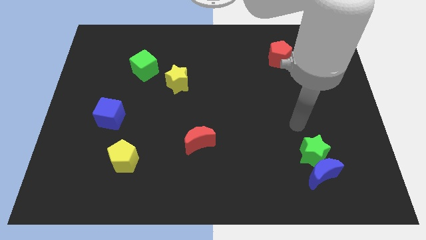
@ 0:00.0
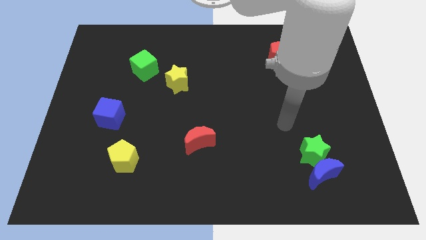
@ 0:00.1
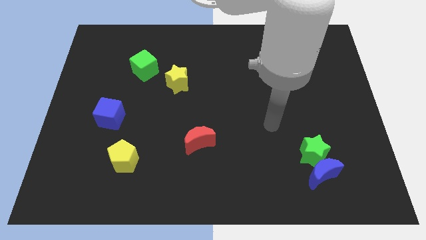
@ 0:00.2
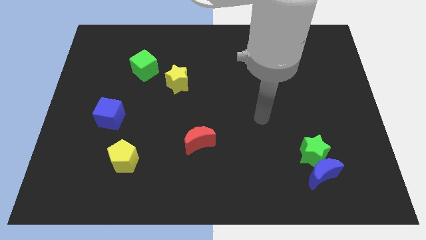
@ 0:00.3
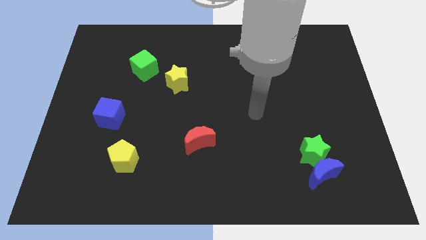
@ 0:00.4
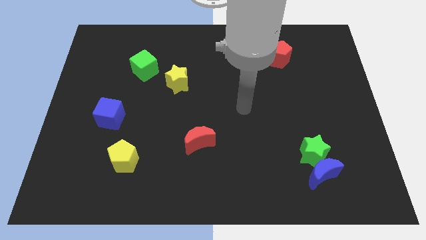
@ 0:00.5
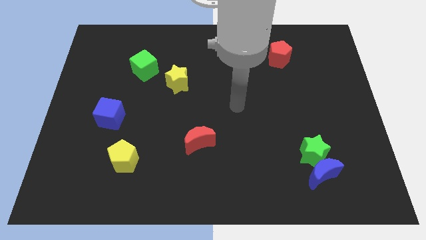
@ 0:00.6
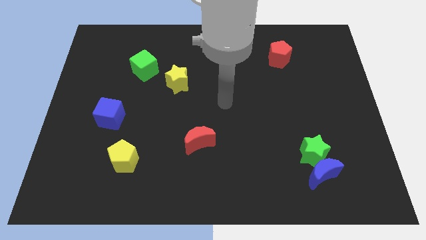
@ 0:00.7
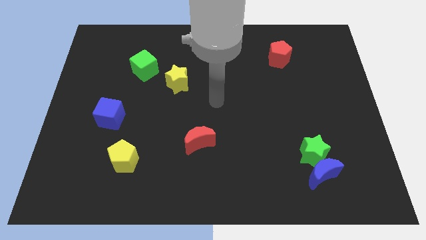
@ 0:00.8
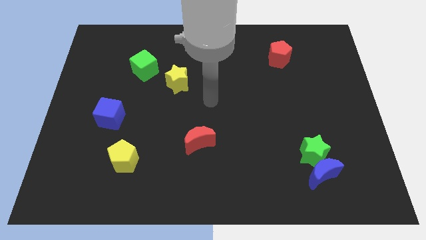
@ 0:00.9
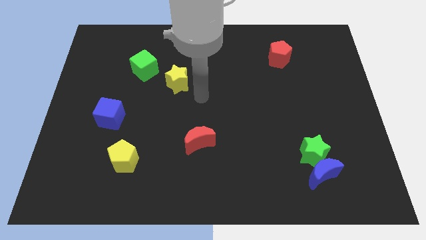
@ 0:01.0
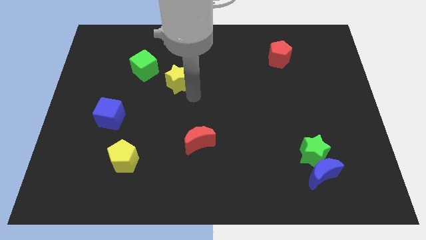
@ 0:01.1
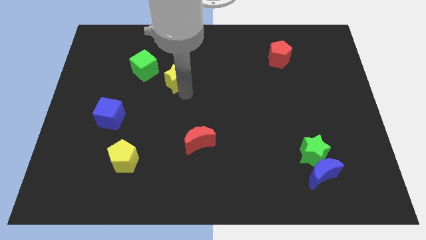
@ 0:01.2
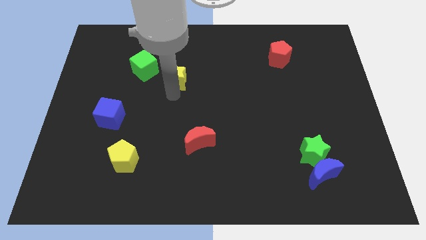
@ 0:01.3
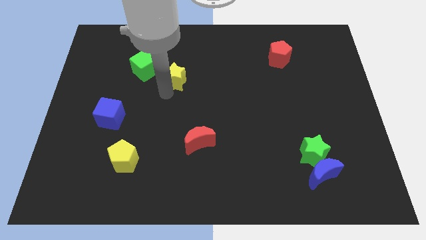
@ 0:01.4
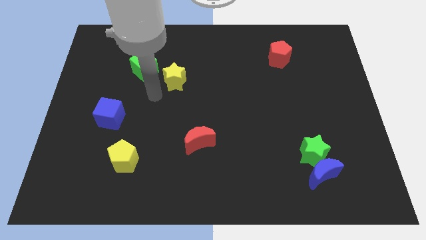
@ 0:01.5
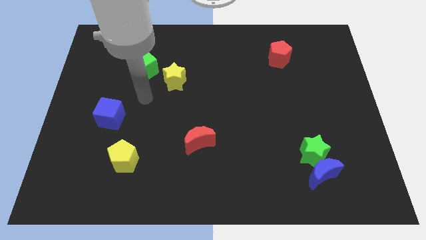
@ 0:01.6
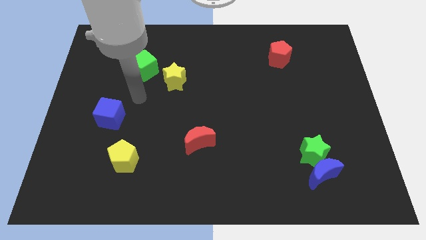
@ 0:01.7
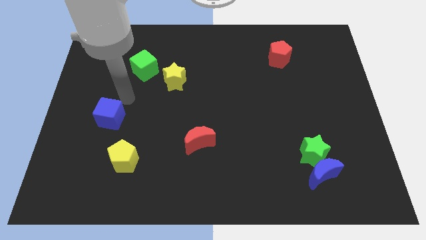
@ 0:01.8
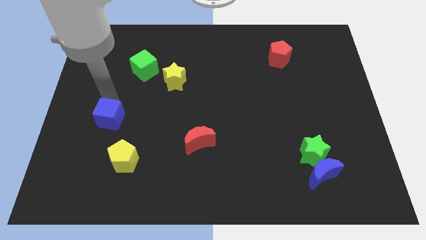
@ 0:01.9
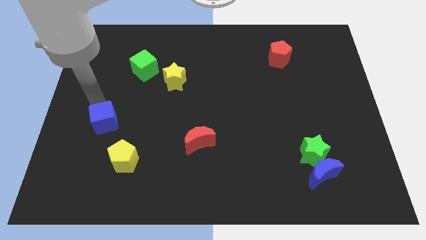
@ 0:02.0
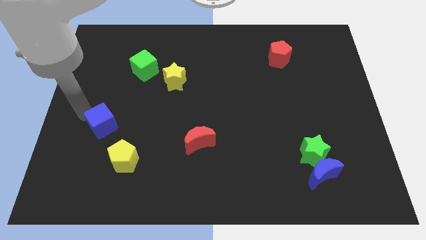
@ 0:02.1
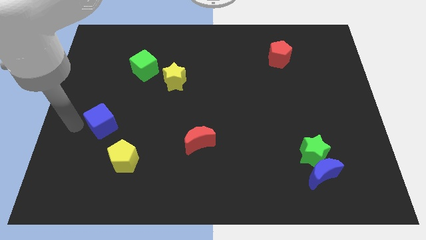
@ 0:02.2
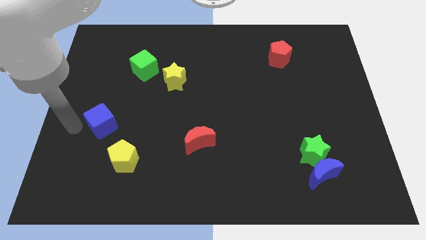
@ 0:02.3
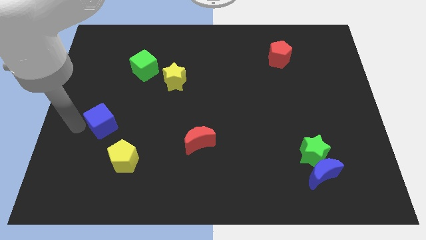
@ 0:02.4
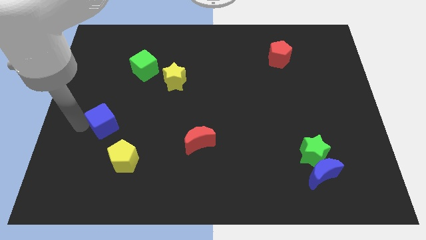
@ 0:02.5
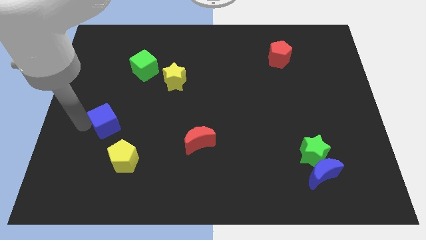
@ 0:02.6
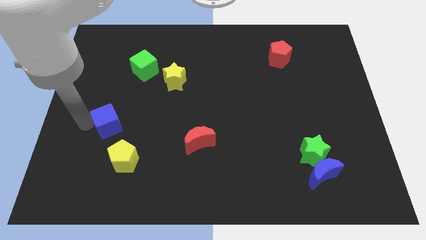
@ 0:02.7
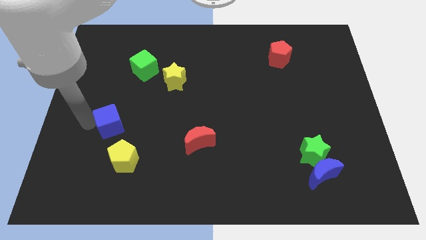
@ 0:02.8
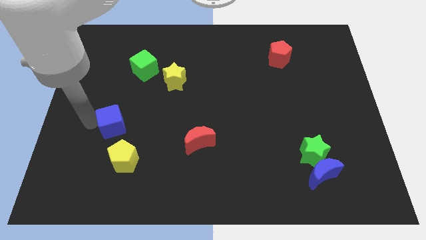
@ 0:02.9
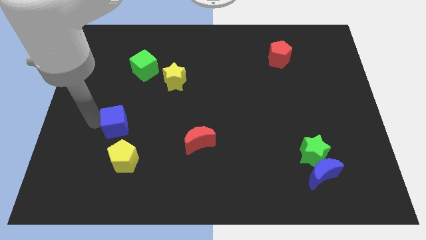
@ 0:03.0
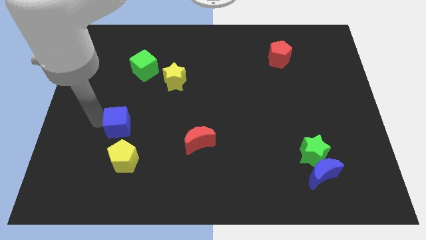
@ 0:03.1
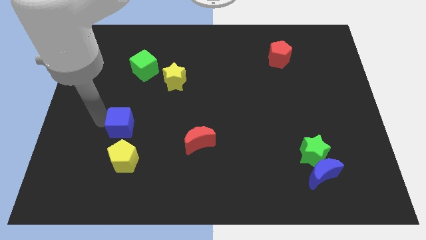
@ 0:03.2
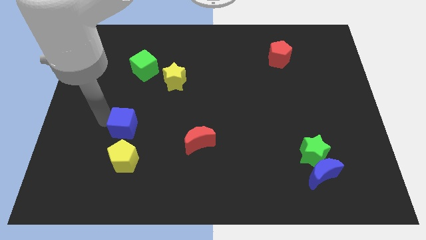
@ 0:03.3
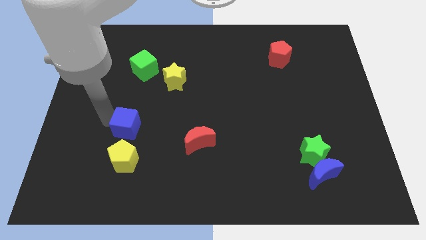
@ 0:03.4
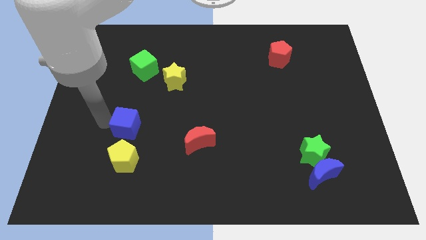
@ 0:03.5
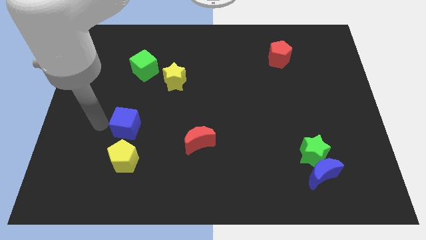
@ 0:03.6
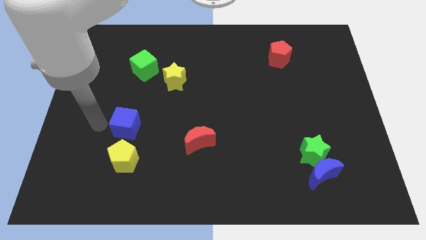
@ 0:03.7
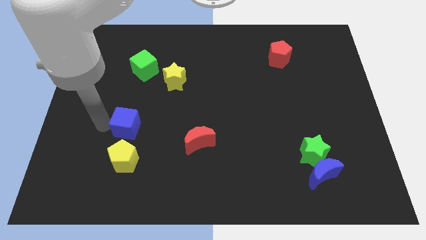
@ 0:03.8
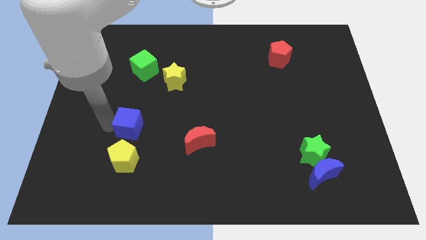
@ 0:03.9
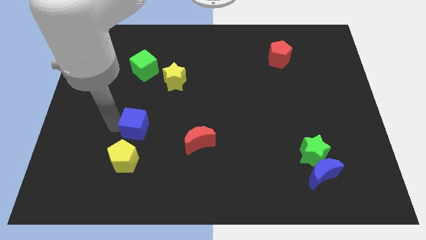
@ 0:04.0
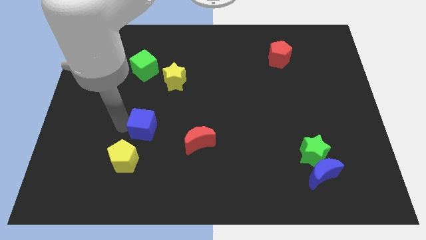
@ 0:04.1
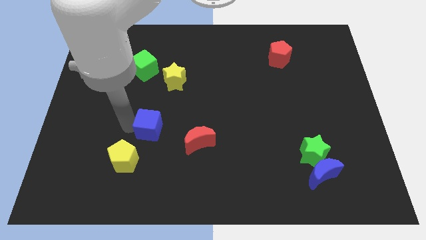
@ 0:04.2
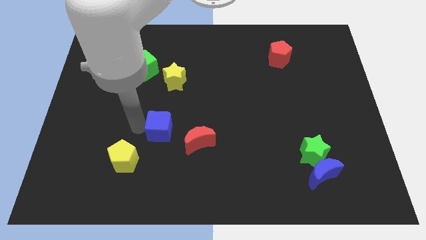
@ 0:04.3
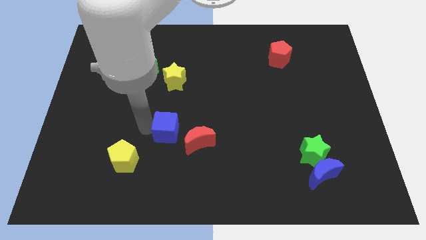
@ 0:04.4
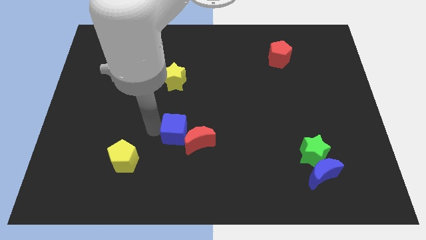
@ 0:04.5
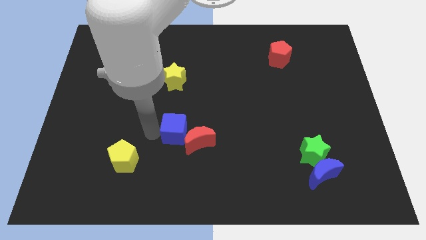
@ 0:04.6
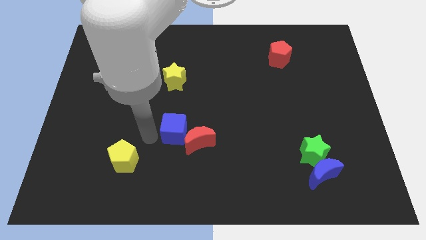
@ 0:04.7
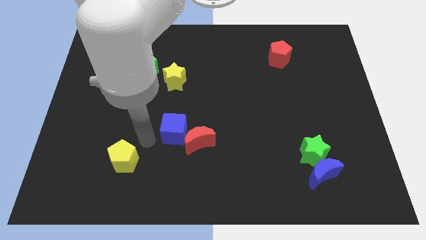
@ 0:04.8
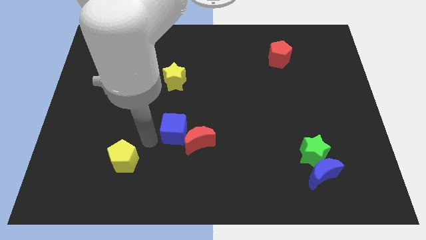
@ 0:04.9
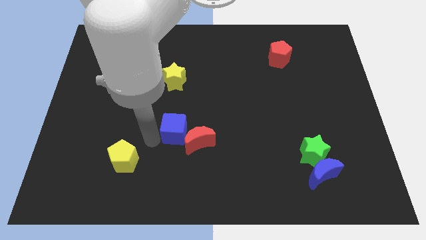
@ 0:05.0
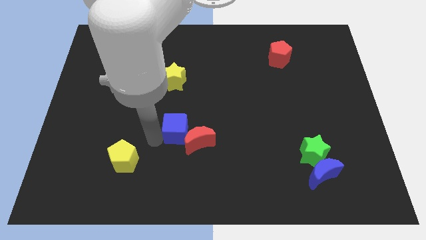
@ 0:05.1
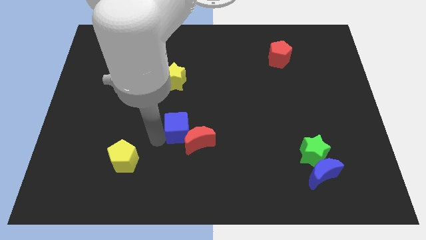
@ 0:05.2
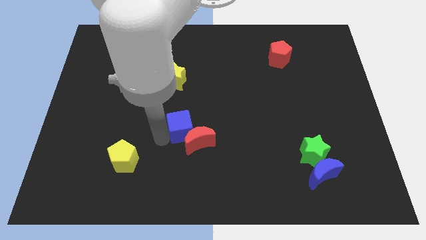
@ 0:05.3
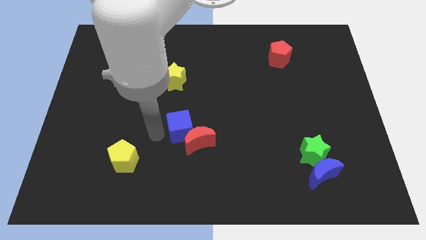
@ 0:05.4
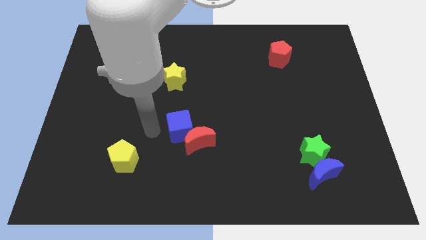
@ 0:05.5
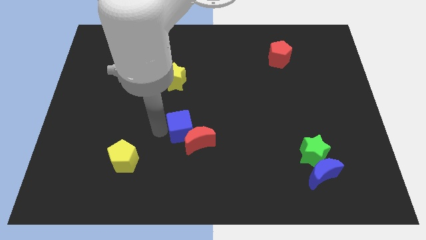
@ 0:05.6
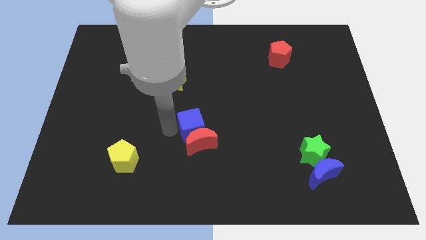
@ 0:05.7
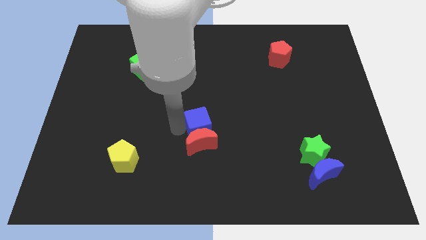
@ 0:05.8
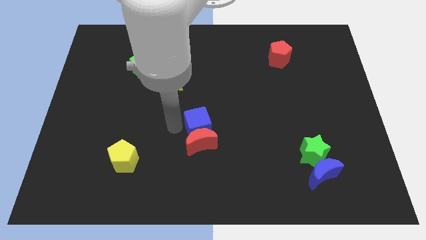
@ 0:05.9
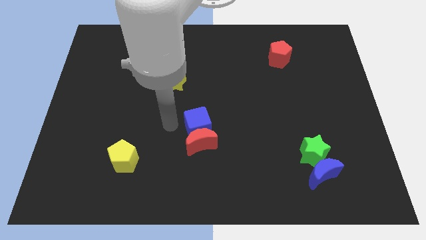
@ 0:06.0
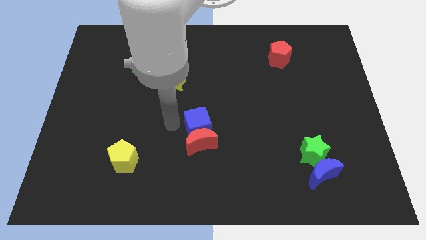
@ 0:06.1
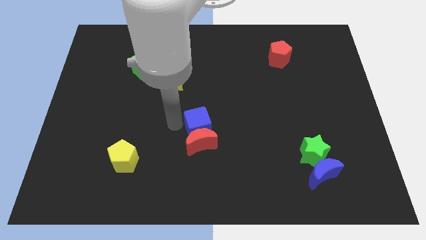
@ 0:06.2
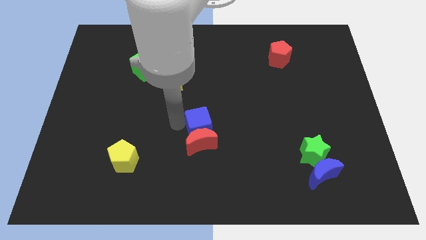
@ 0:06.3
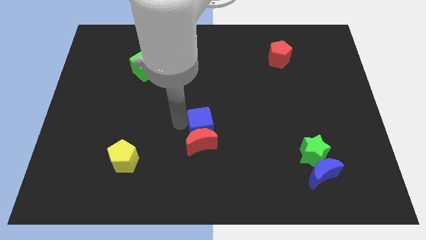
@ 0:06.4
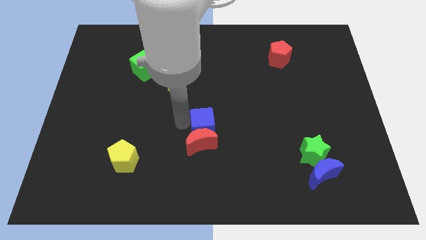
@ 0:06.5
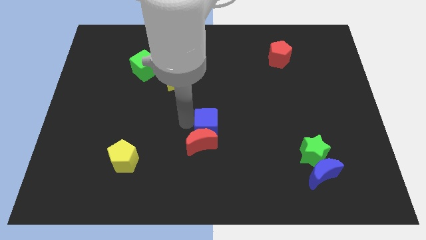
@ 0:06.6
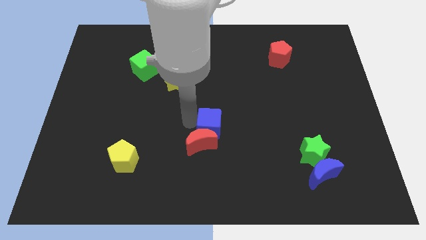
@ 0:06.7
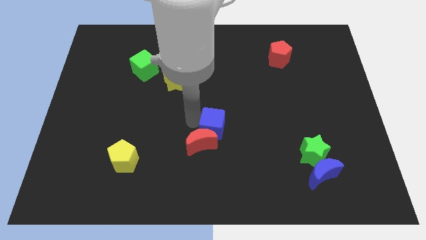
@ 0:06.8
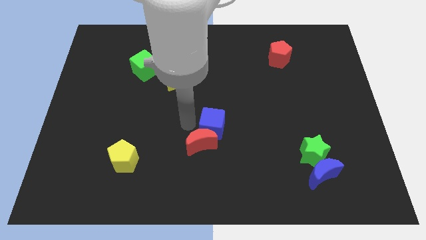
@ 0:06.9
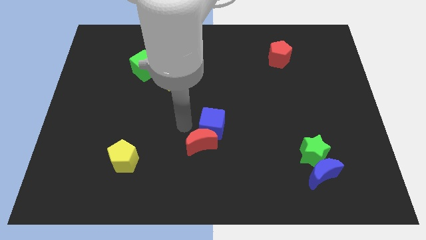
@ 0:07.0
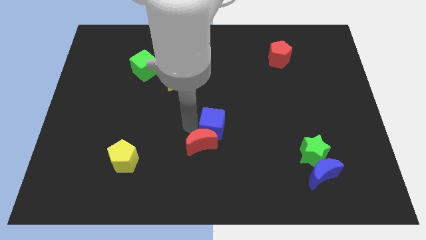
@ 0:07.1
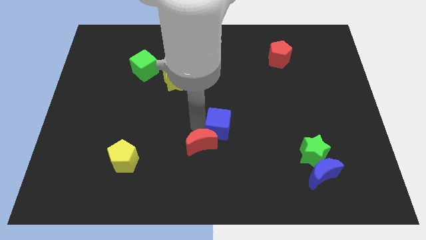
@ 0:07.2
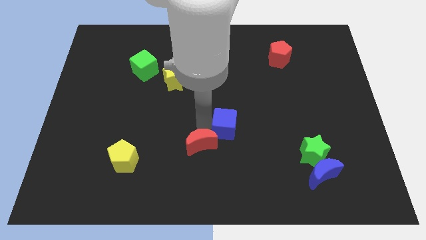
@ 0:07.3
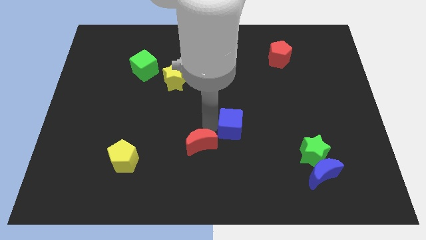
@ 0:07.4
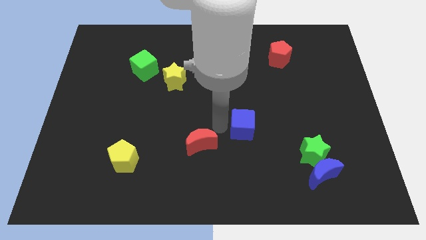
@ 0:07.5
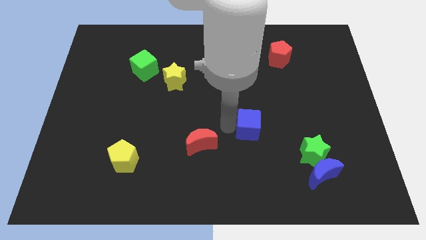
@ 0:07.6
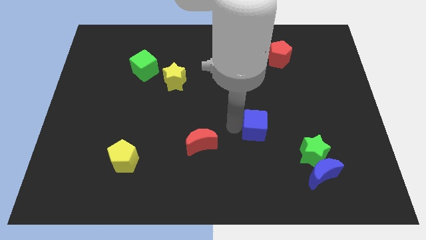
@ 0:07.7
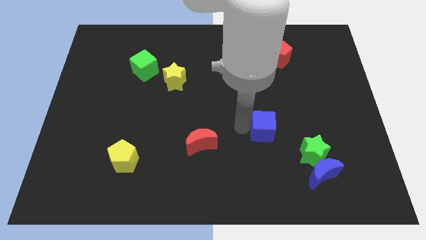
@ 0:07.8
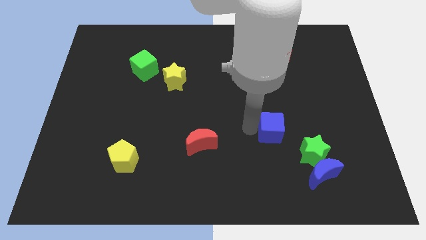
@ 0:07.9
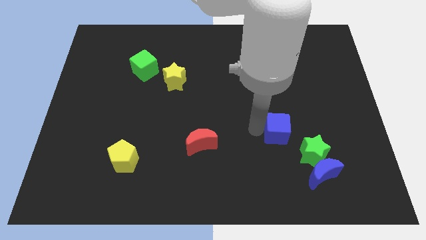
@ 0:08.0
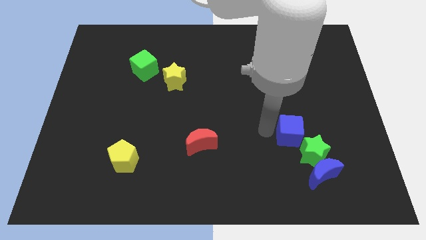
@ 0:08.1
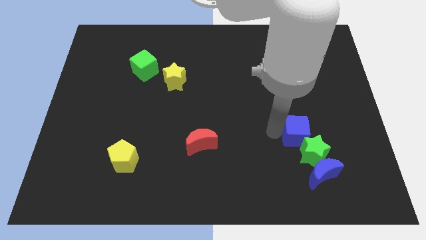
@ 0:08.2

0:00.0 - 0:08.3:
slide the blue cube above the blue moon
